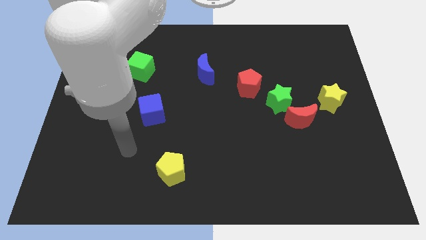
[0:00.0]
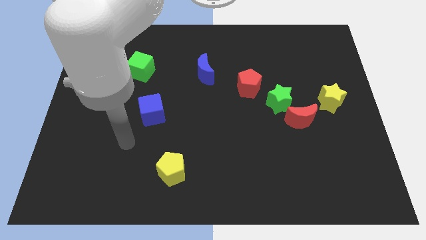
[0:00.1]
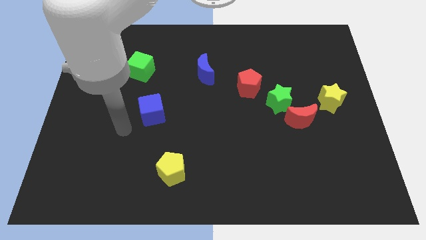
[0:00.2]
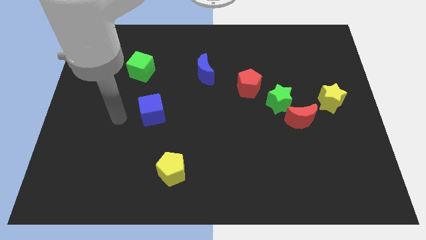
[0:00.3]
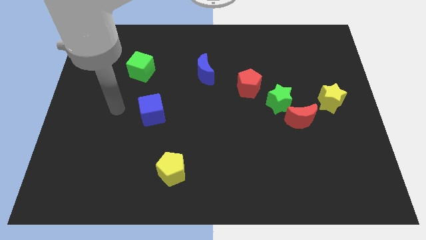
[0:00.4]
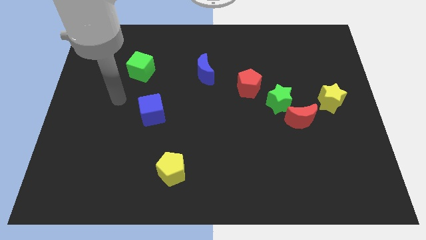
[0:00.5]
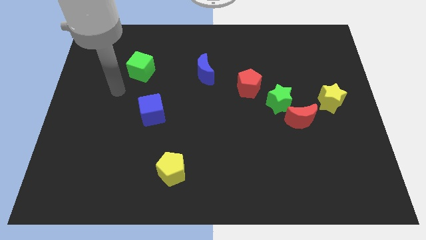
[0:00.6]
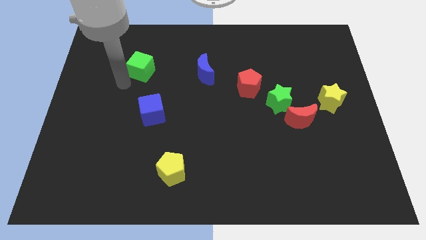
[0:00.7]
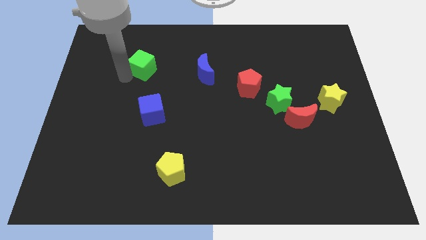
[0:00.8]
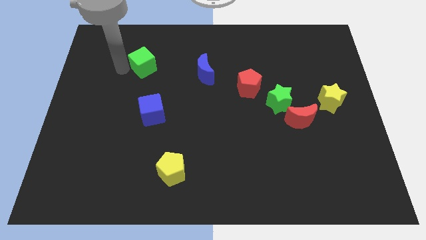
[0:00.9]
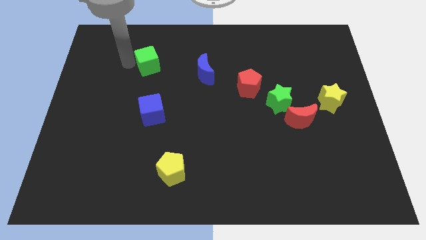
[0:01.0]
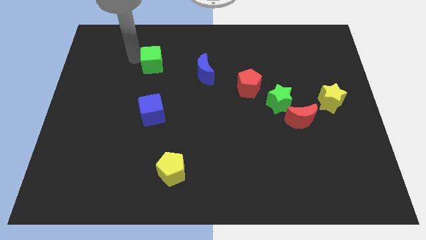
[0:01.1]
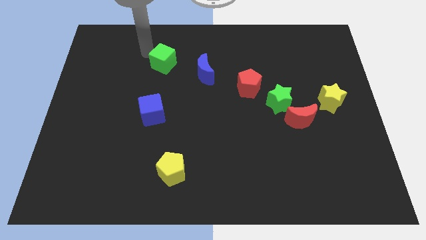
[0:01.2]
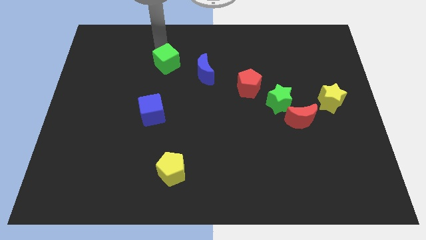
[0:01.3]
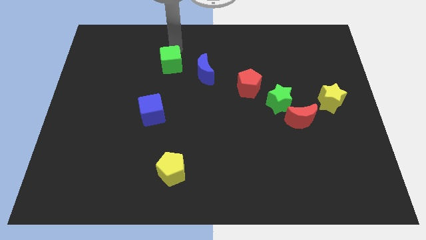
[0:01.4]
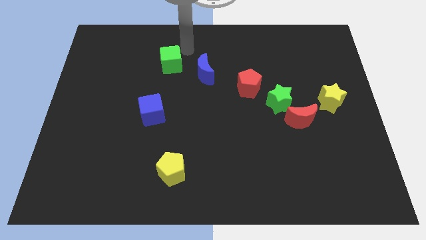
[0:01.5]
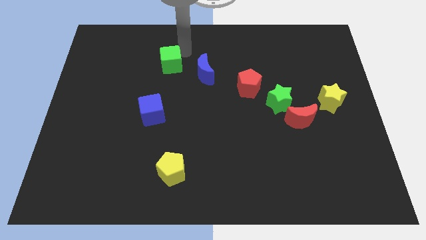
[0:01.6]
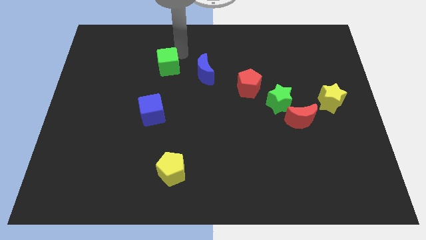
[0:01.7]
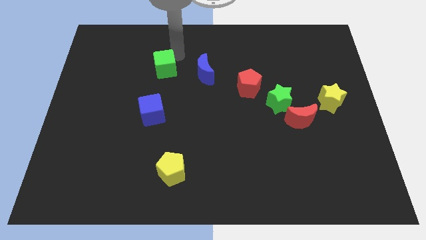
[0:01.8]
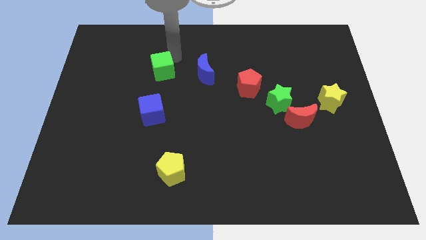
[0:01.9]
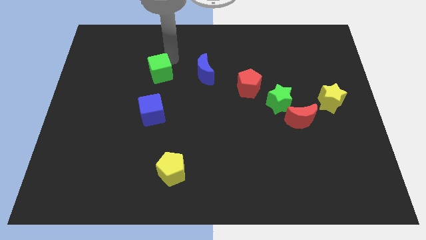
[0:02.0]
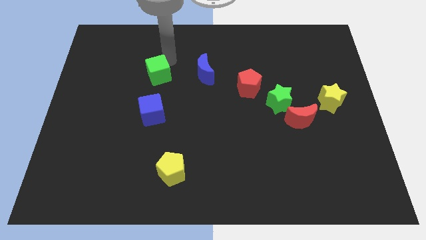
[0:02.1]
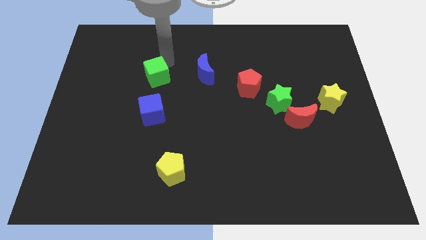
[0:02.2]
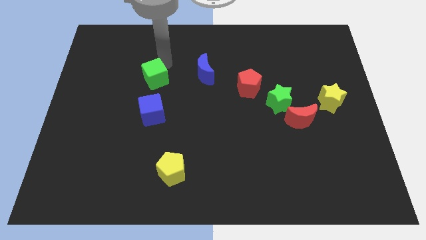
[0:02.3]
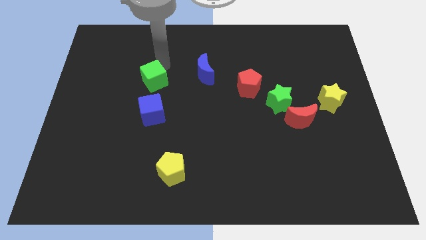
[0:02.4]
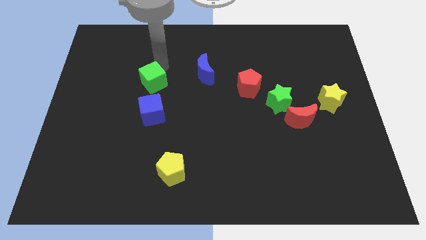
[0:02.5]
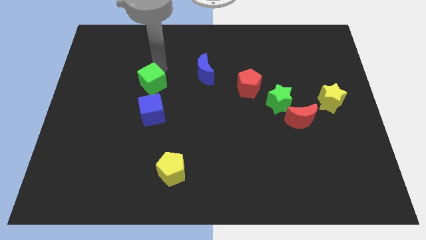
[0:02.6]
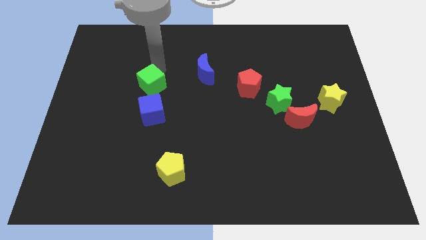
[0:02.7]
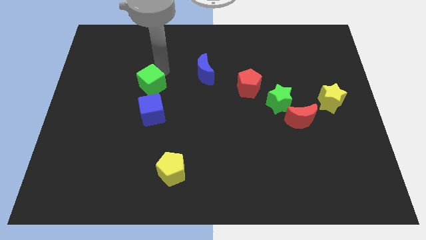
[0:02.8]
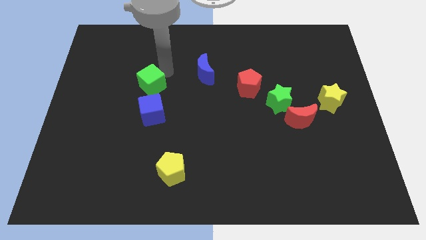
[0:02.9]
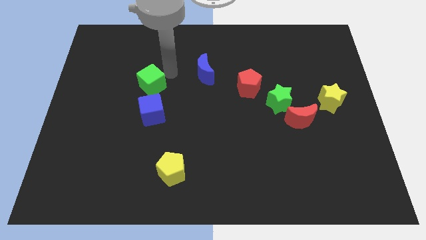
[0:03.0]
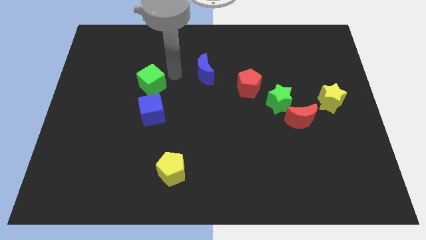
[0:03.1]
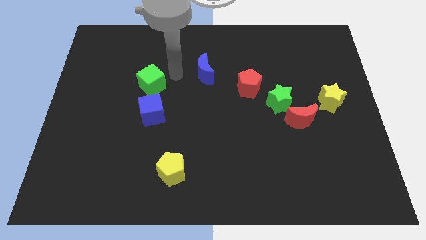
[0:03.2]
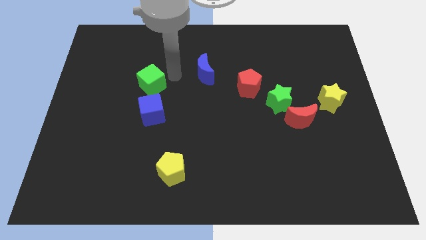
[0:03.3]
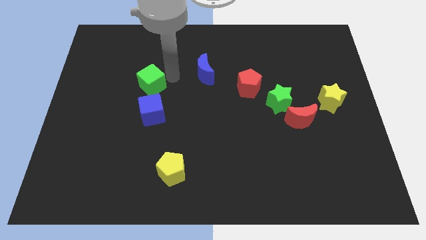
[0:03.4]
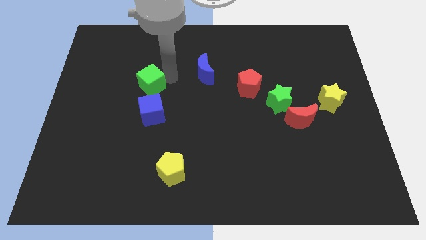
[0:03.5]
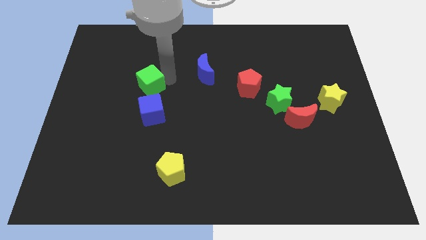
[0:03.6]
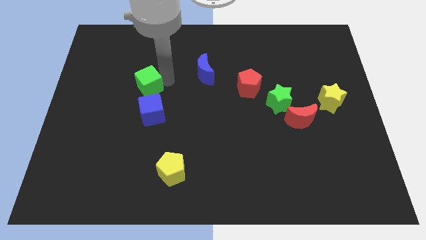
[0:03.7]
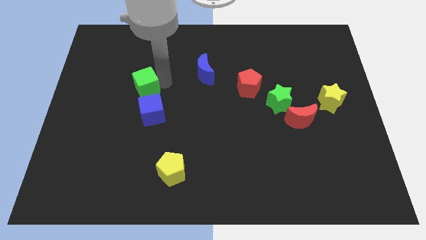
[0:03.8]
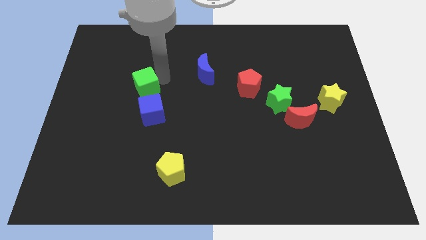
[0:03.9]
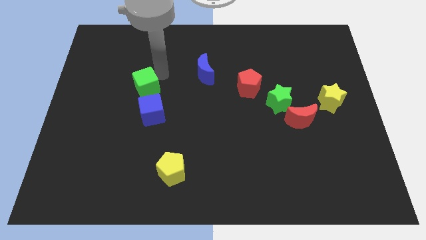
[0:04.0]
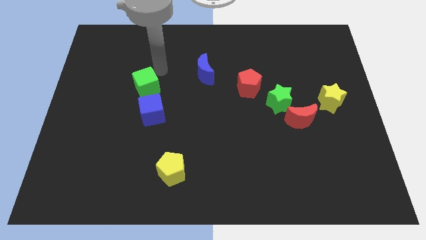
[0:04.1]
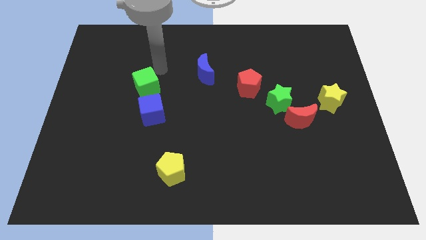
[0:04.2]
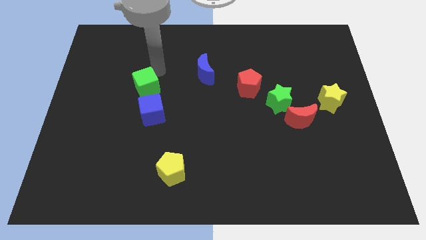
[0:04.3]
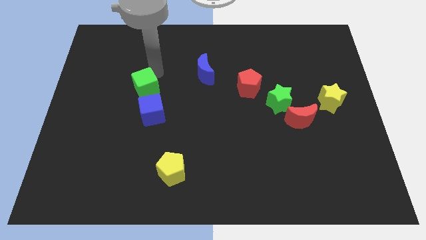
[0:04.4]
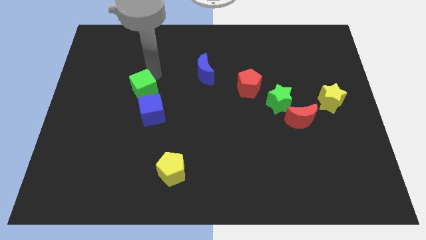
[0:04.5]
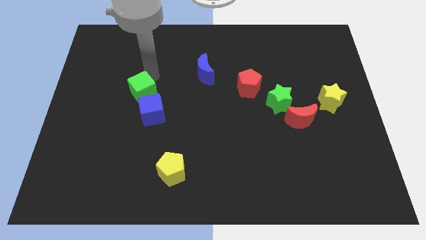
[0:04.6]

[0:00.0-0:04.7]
push the green cube down a little bit

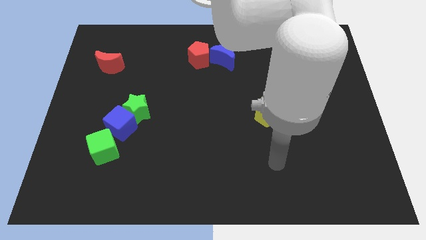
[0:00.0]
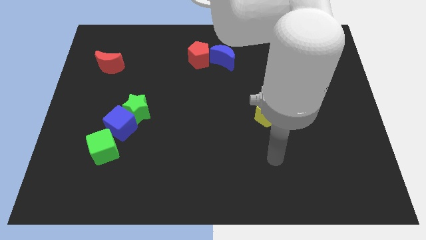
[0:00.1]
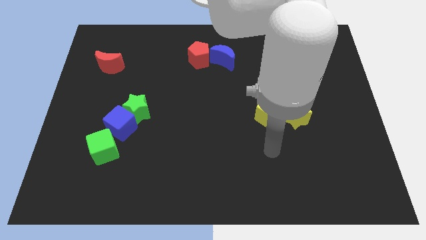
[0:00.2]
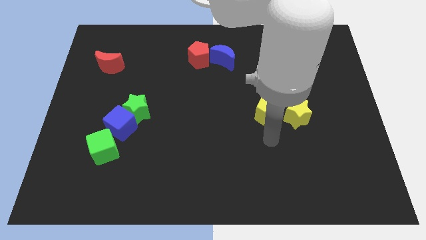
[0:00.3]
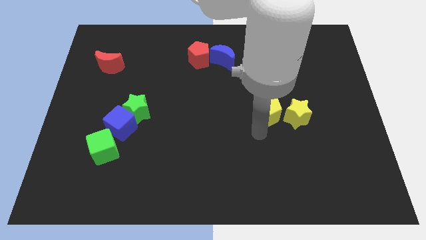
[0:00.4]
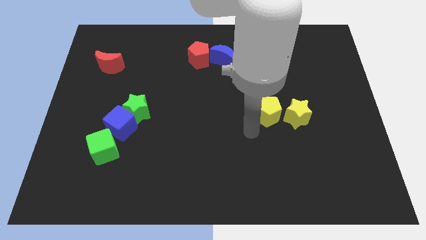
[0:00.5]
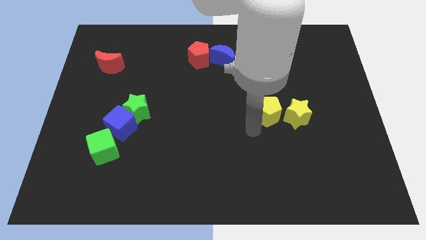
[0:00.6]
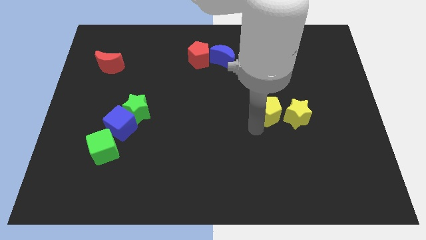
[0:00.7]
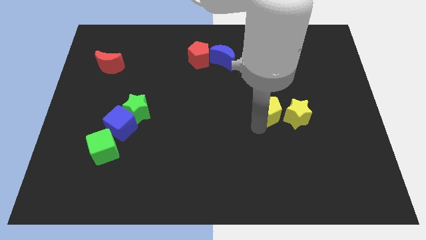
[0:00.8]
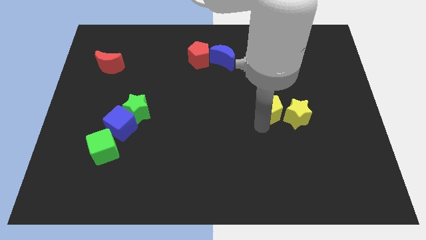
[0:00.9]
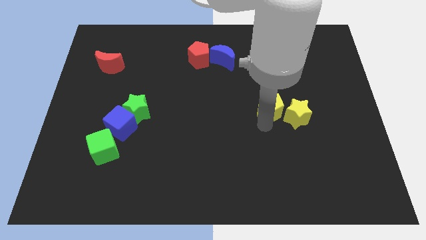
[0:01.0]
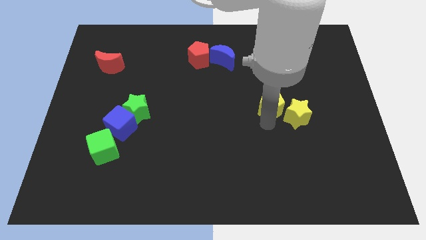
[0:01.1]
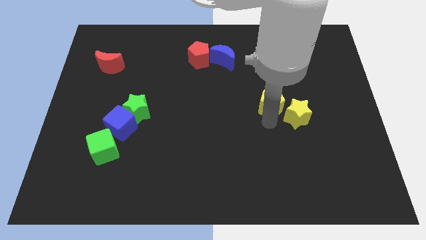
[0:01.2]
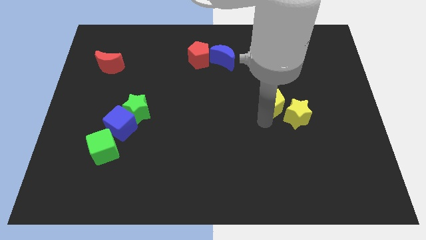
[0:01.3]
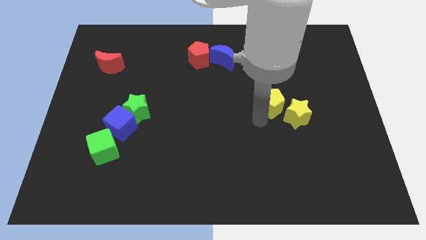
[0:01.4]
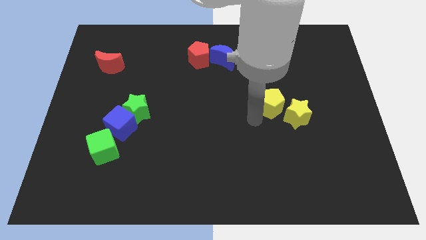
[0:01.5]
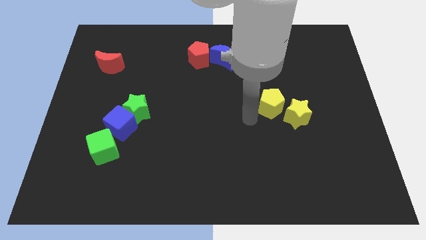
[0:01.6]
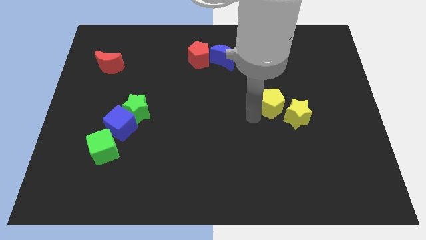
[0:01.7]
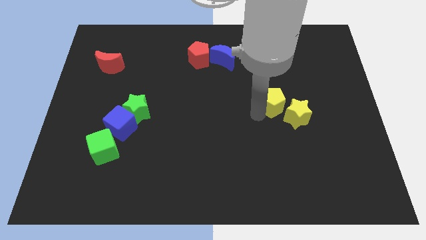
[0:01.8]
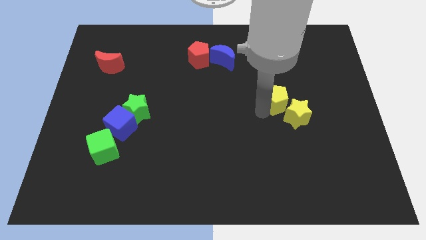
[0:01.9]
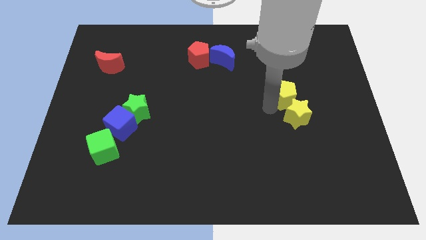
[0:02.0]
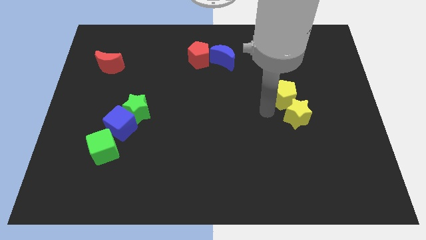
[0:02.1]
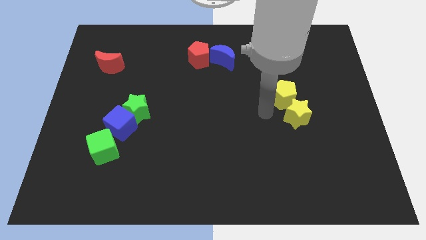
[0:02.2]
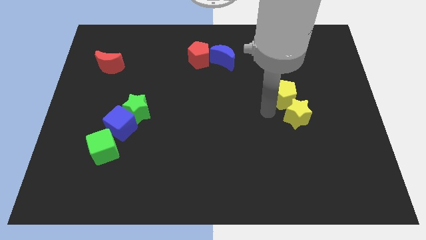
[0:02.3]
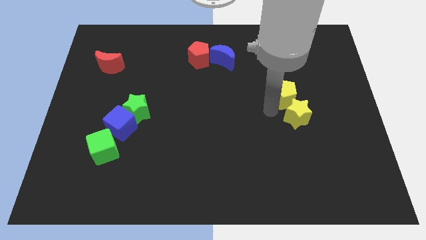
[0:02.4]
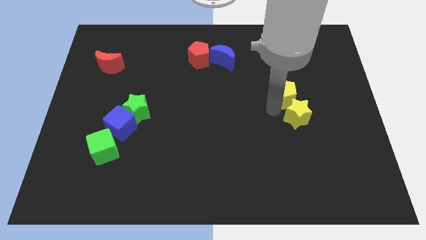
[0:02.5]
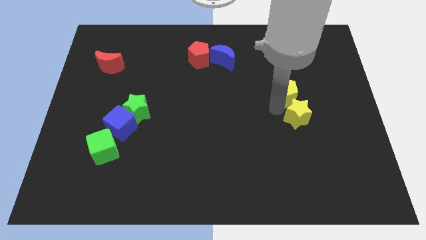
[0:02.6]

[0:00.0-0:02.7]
push the yellow pentagon somewhat diagonally up and right

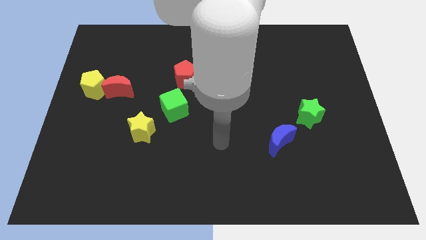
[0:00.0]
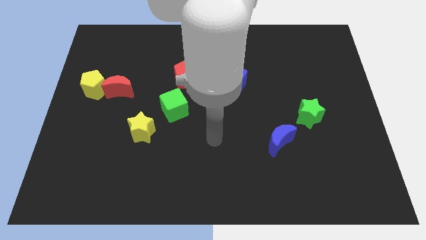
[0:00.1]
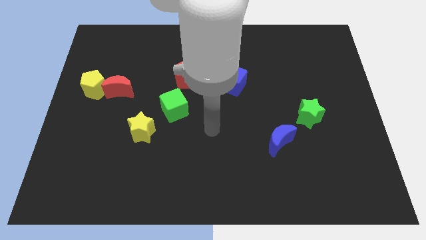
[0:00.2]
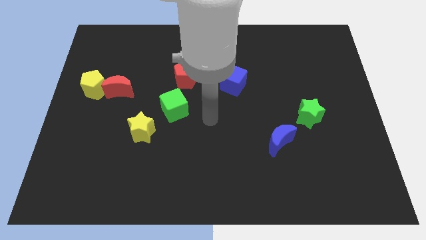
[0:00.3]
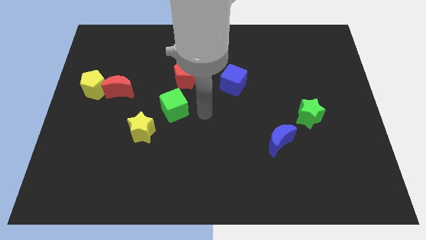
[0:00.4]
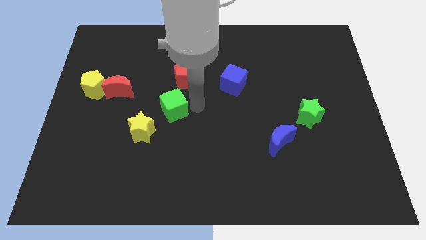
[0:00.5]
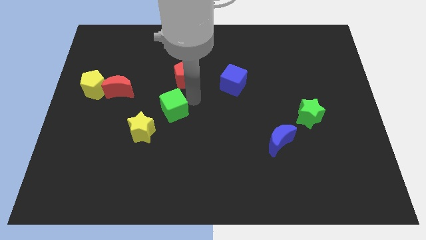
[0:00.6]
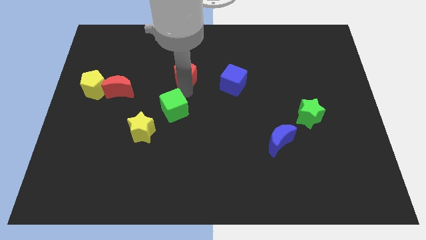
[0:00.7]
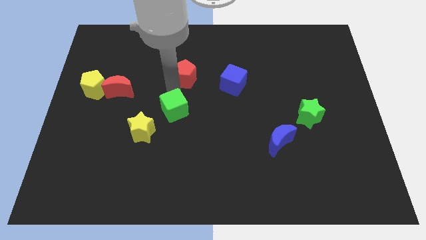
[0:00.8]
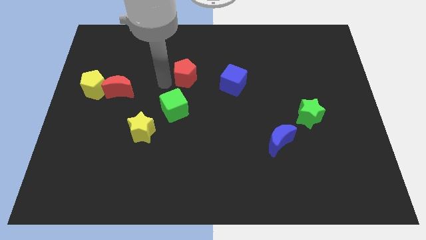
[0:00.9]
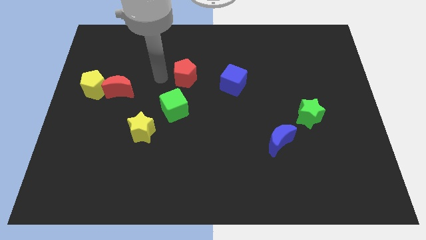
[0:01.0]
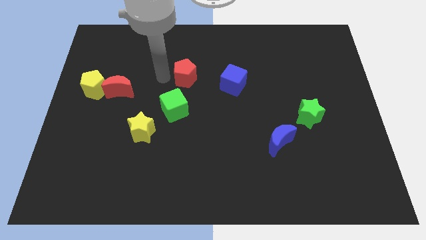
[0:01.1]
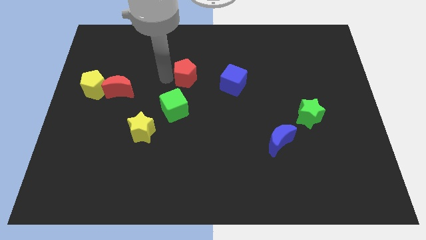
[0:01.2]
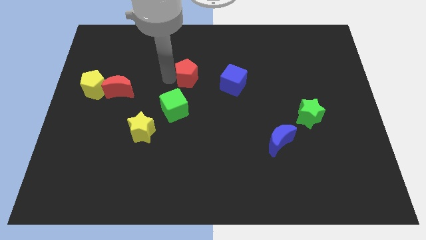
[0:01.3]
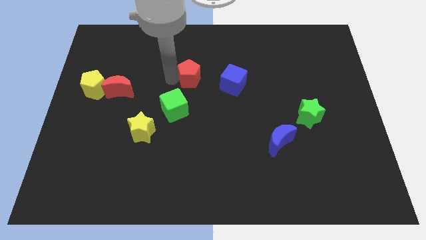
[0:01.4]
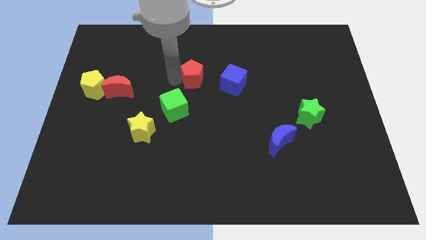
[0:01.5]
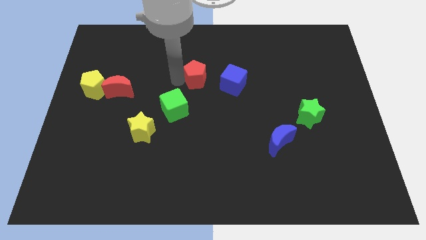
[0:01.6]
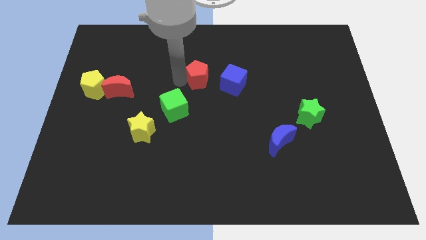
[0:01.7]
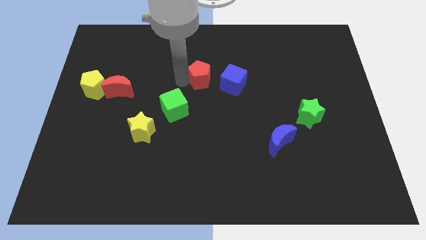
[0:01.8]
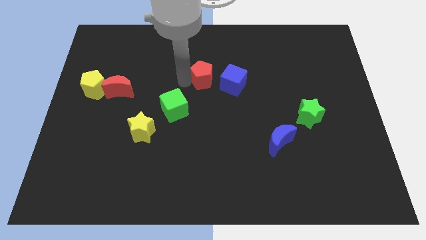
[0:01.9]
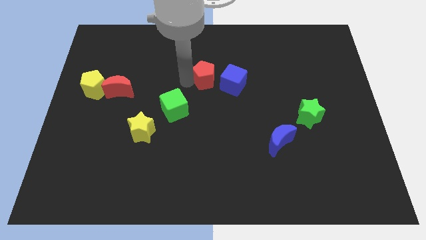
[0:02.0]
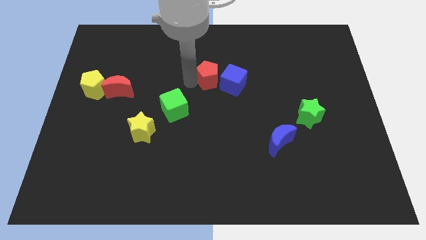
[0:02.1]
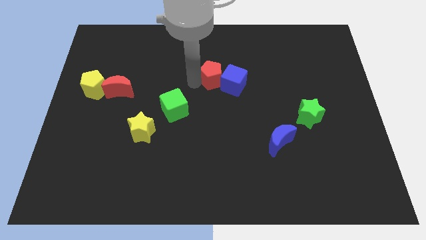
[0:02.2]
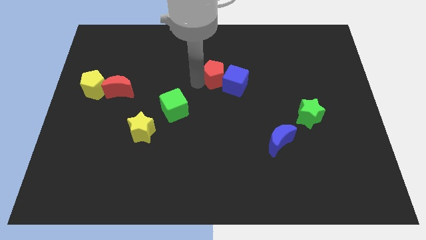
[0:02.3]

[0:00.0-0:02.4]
slightly slide the red pentagon to the right
